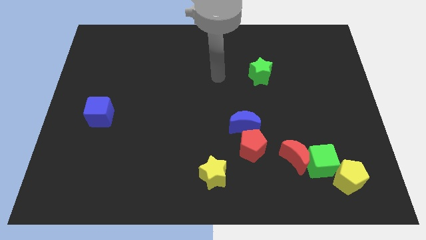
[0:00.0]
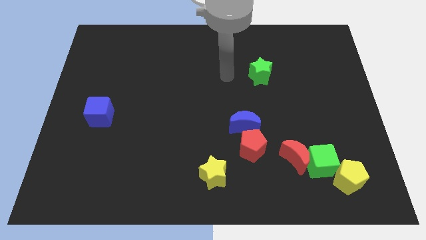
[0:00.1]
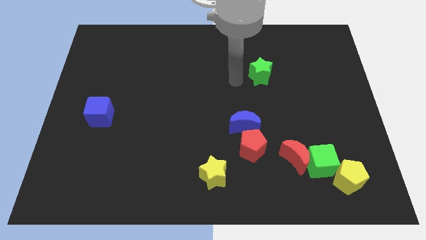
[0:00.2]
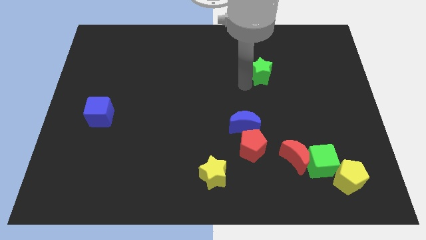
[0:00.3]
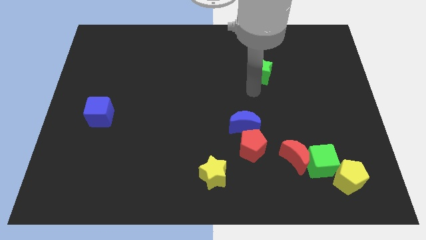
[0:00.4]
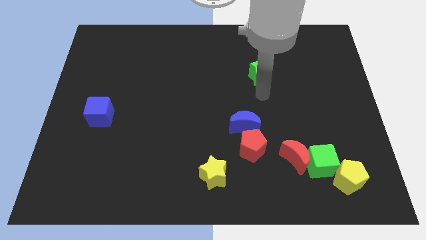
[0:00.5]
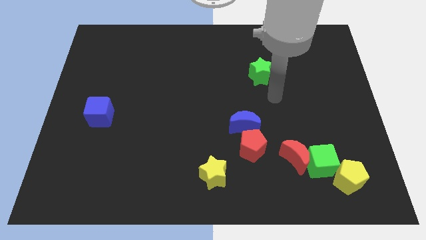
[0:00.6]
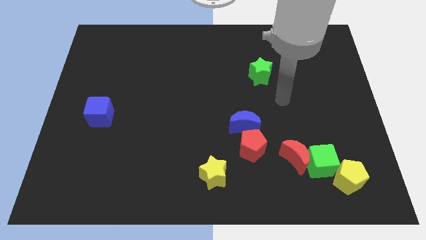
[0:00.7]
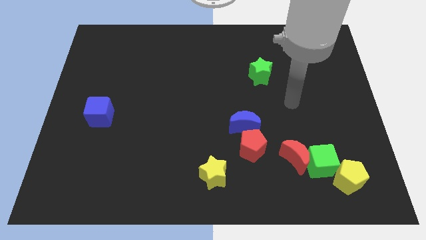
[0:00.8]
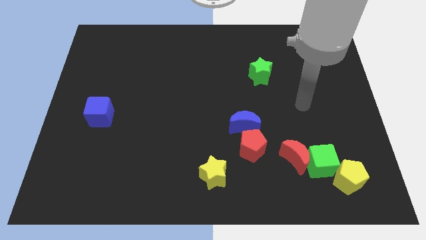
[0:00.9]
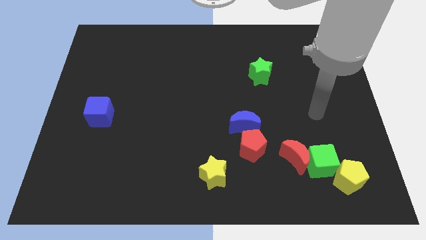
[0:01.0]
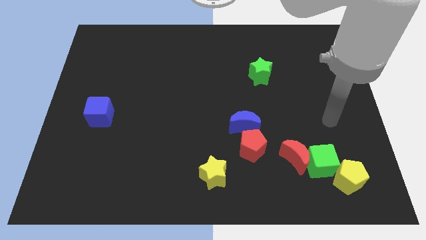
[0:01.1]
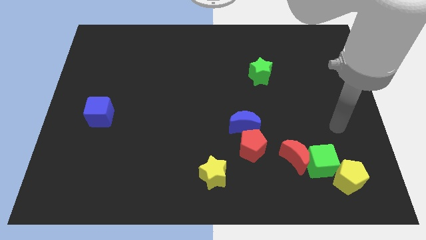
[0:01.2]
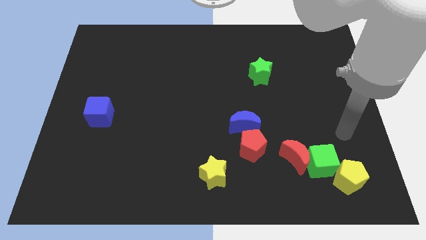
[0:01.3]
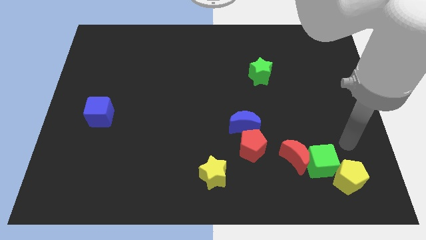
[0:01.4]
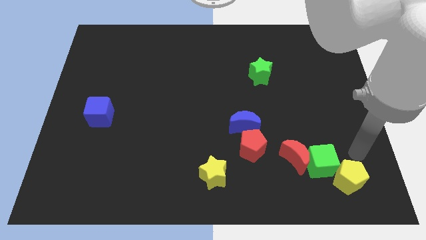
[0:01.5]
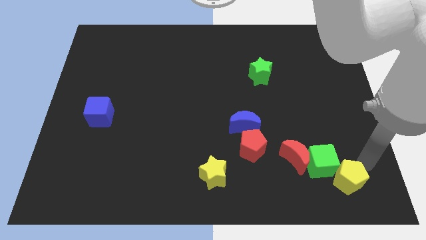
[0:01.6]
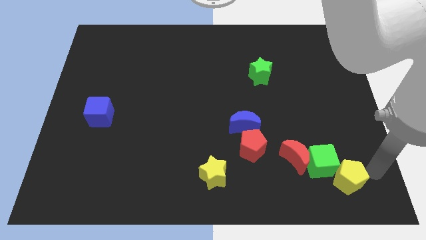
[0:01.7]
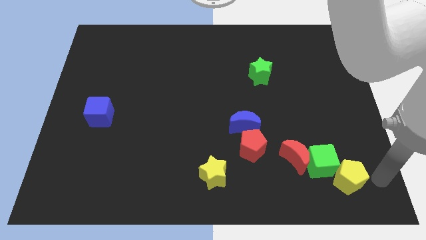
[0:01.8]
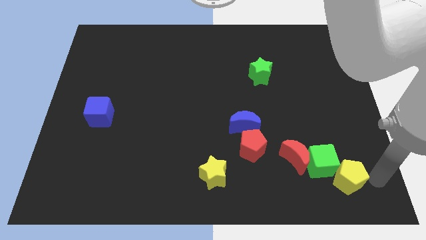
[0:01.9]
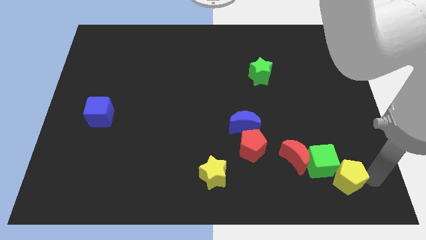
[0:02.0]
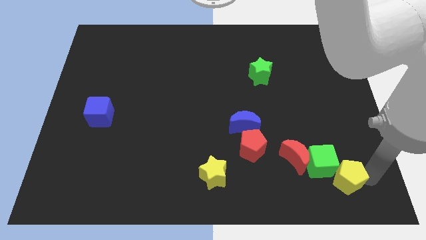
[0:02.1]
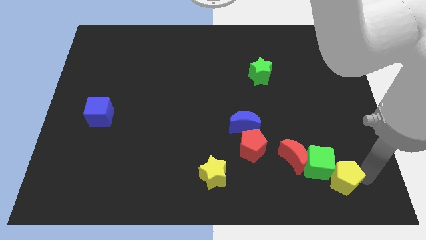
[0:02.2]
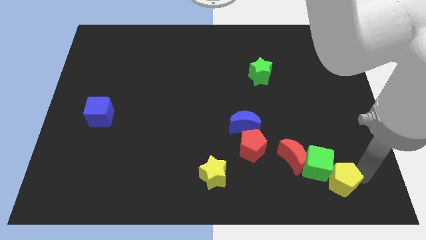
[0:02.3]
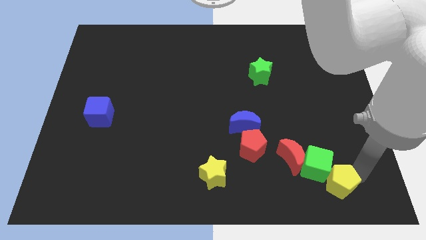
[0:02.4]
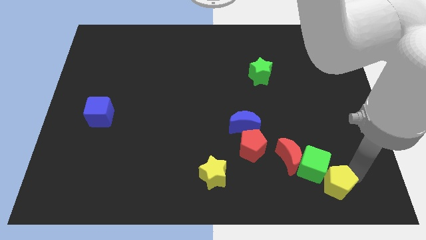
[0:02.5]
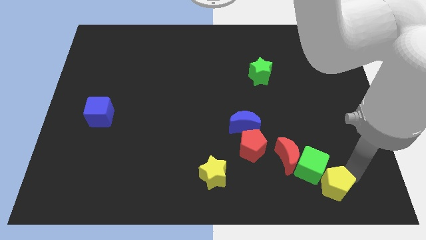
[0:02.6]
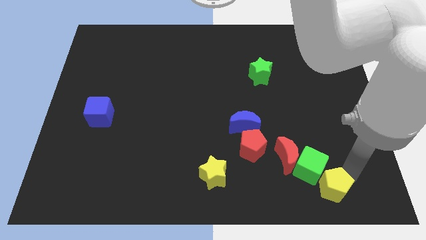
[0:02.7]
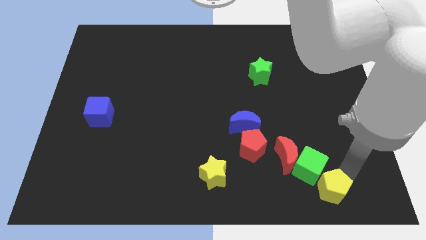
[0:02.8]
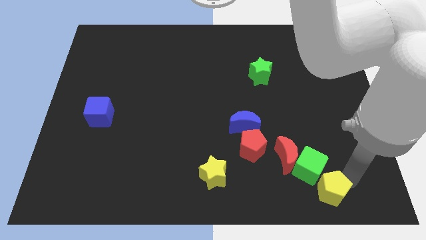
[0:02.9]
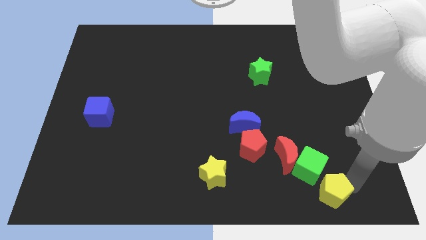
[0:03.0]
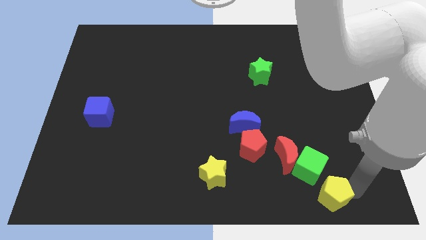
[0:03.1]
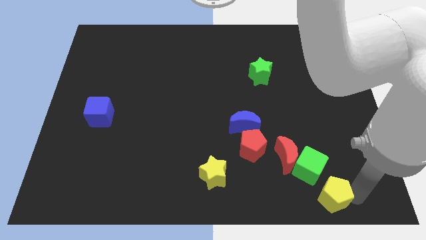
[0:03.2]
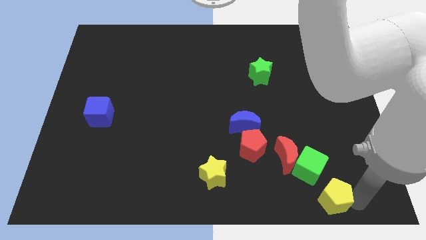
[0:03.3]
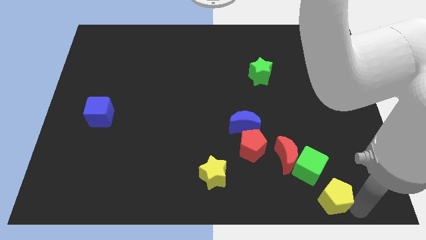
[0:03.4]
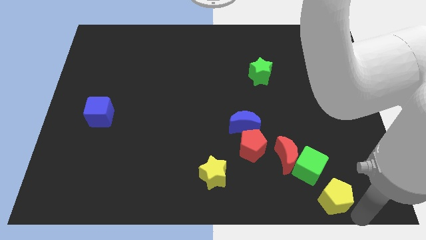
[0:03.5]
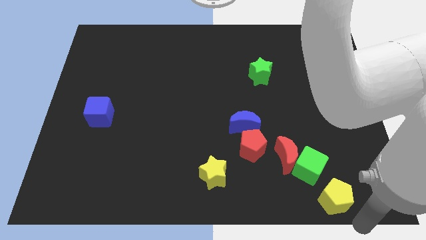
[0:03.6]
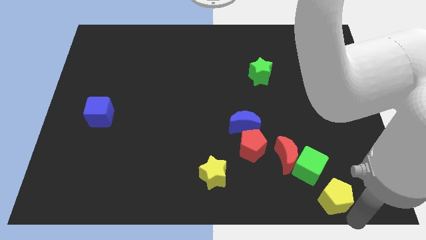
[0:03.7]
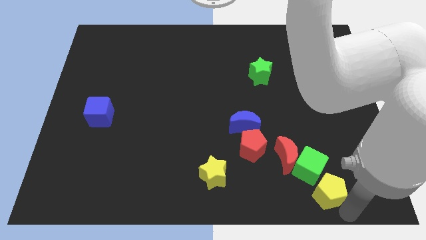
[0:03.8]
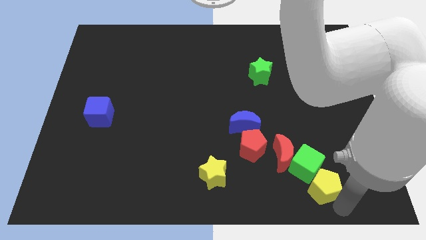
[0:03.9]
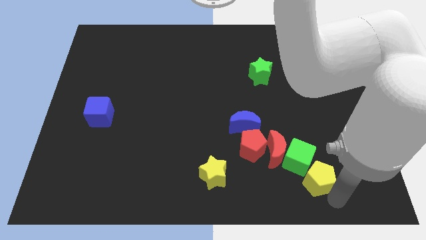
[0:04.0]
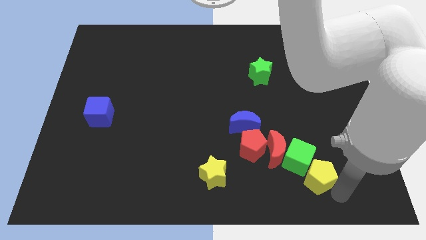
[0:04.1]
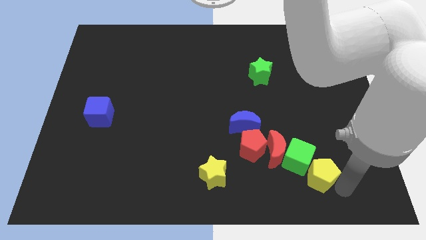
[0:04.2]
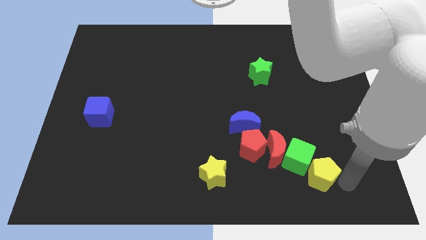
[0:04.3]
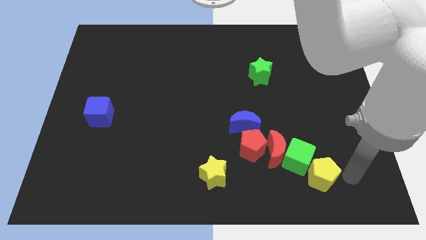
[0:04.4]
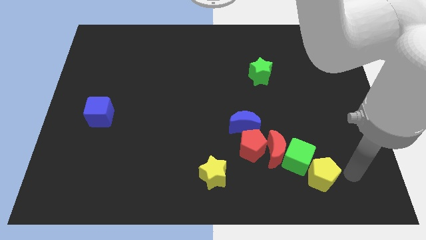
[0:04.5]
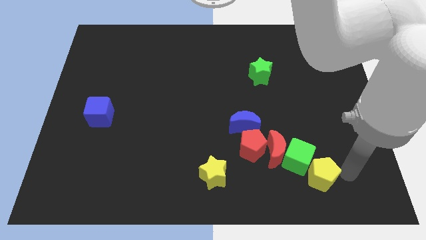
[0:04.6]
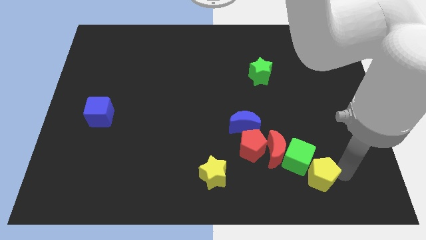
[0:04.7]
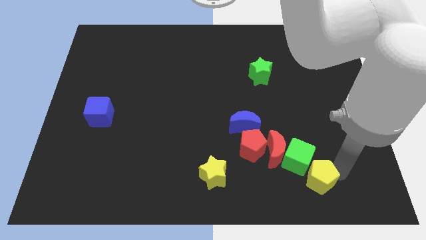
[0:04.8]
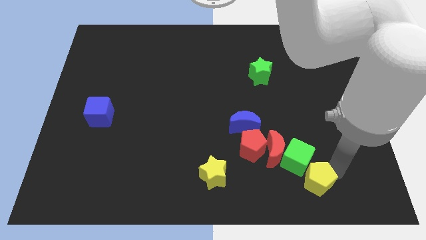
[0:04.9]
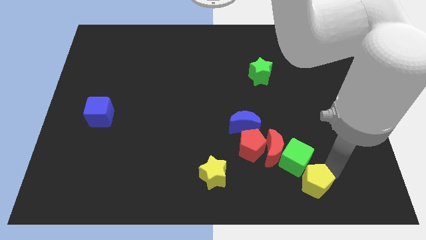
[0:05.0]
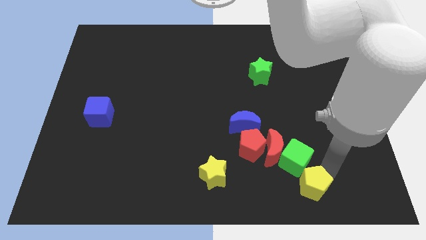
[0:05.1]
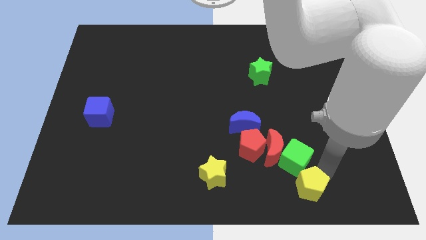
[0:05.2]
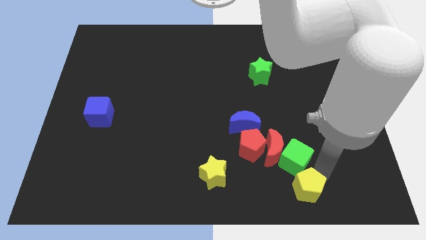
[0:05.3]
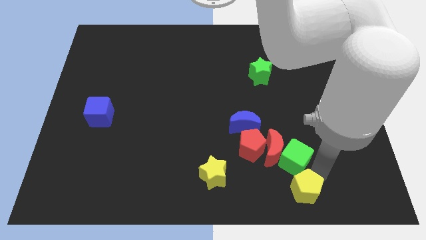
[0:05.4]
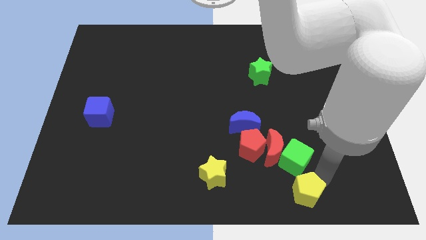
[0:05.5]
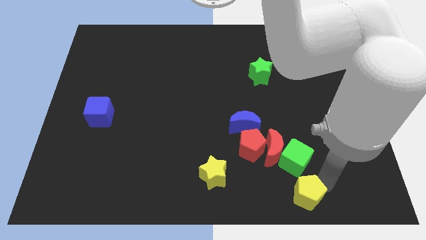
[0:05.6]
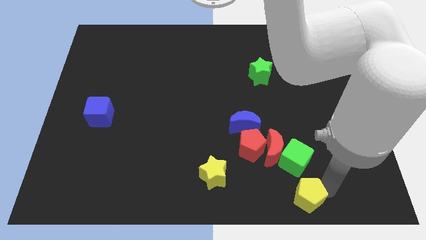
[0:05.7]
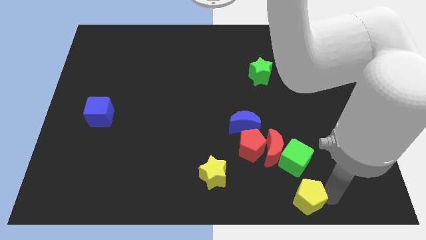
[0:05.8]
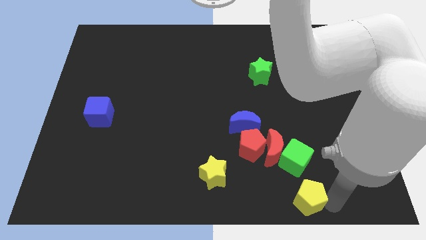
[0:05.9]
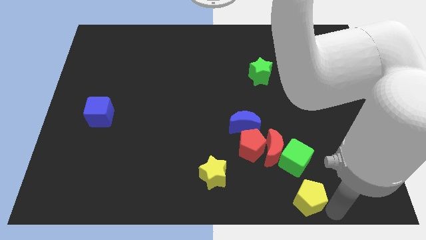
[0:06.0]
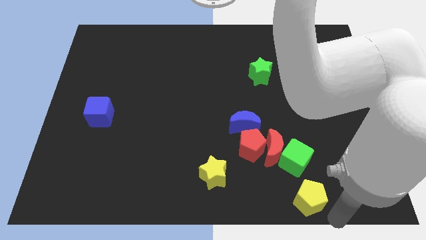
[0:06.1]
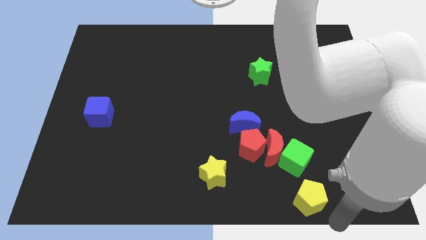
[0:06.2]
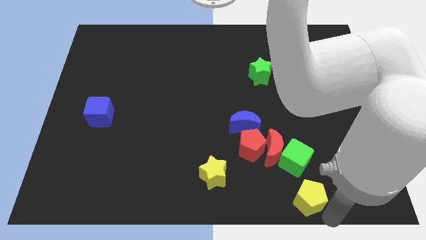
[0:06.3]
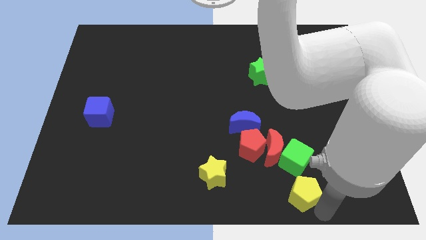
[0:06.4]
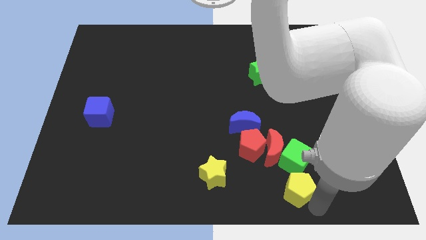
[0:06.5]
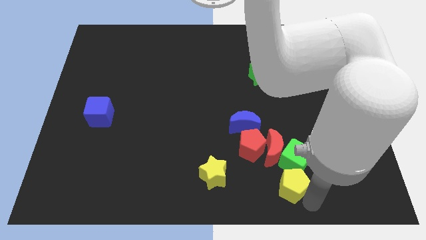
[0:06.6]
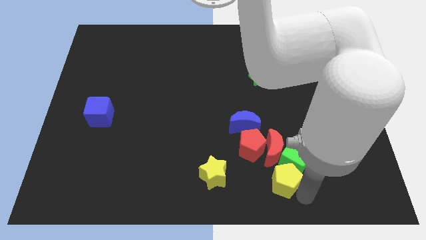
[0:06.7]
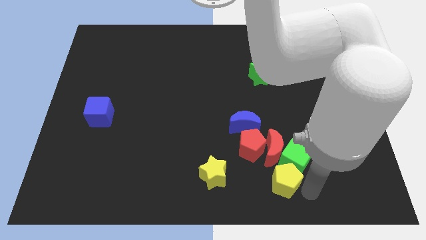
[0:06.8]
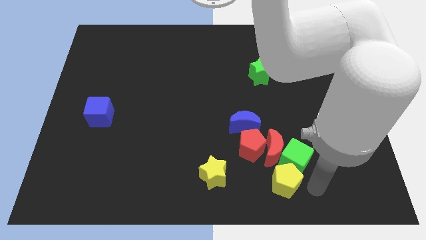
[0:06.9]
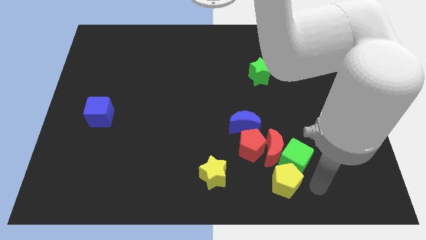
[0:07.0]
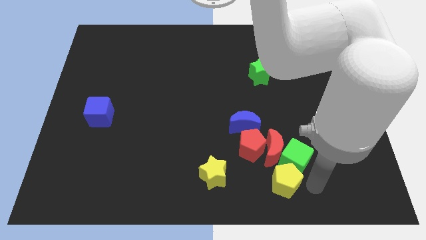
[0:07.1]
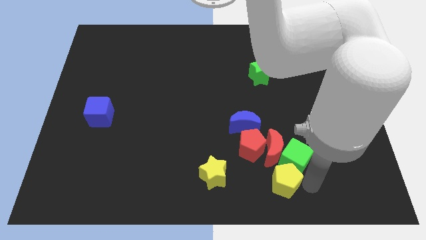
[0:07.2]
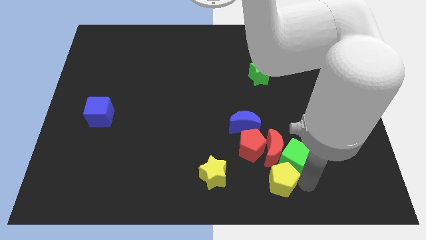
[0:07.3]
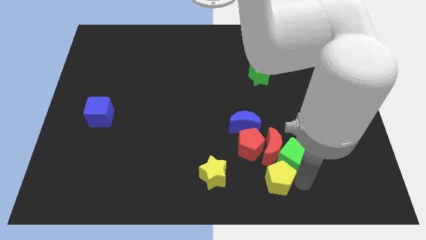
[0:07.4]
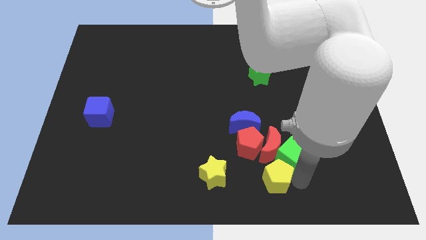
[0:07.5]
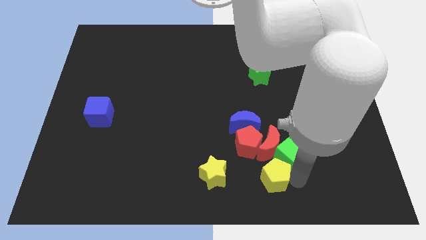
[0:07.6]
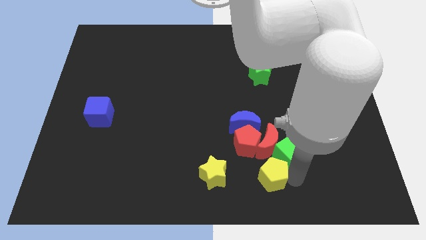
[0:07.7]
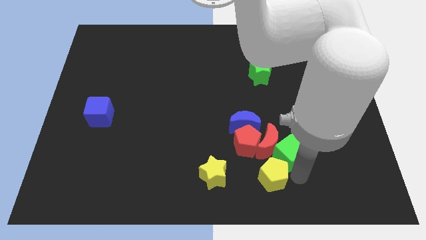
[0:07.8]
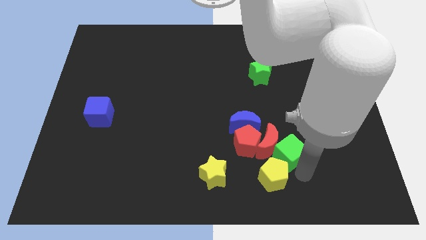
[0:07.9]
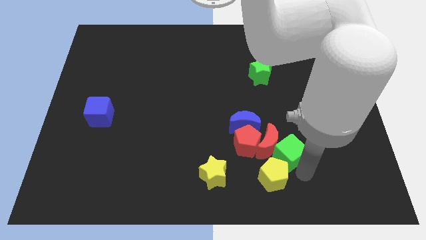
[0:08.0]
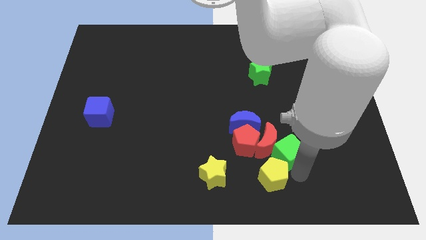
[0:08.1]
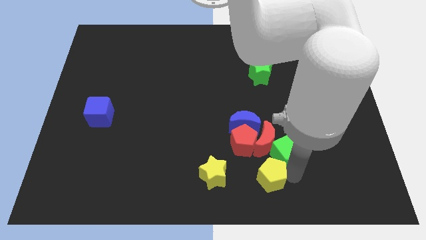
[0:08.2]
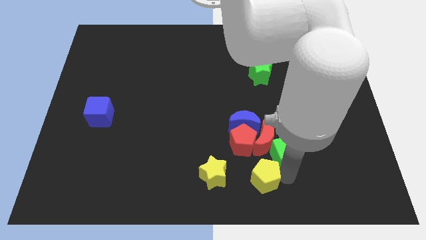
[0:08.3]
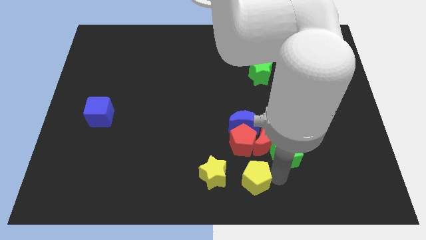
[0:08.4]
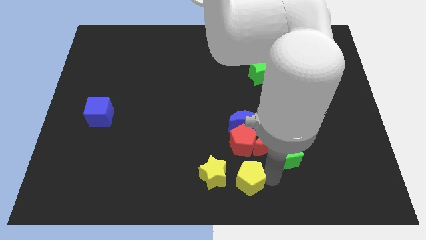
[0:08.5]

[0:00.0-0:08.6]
slide the yellow pentagon left
